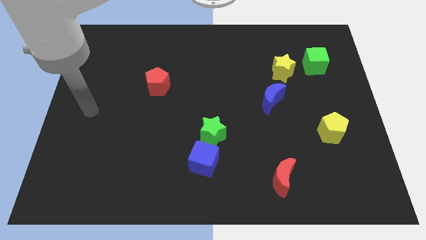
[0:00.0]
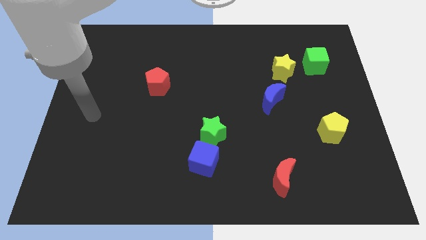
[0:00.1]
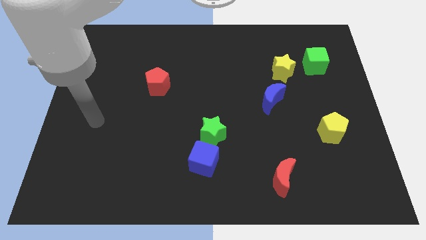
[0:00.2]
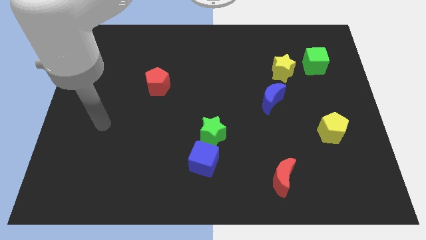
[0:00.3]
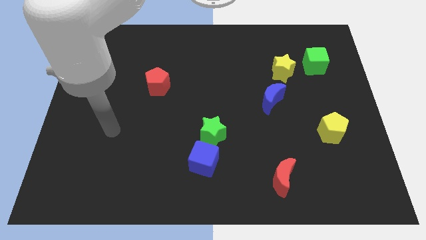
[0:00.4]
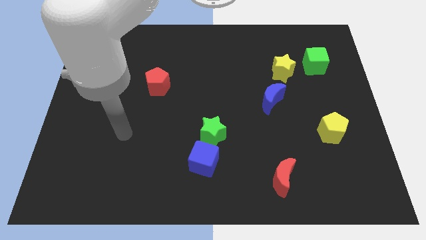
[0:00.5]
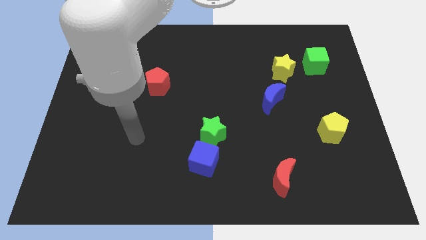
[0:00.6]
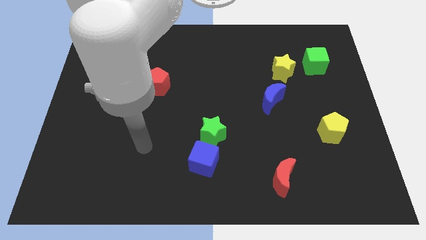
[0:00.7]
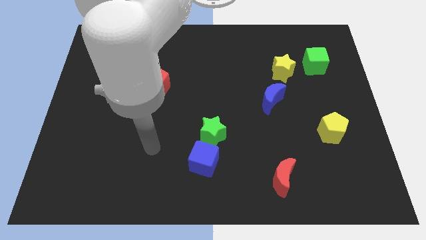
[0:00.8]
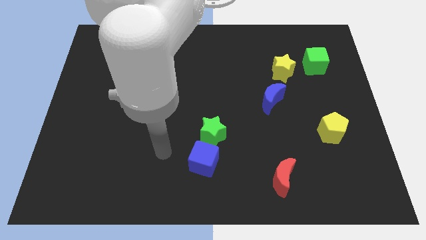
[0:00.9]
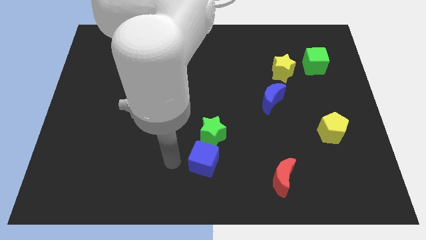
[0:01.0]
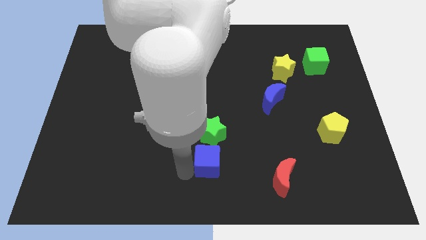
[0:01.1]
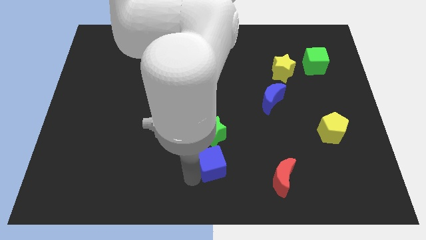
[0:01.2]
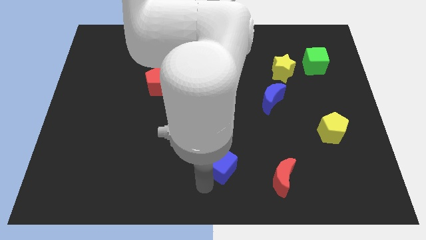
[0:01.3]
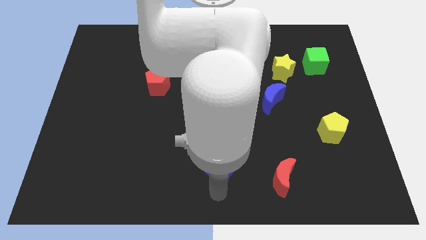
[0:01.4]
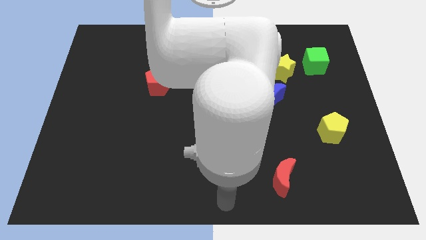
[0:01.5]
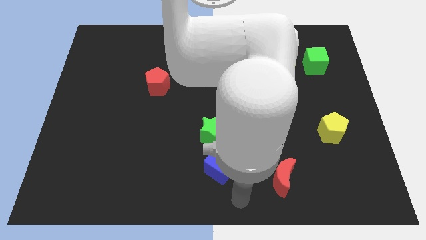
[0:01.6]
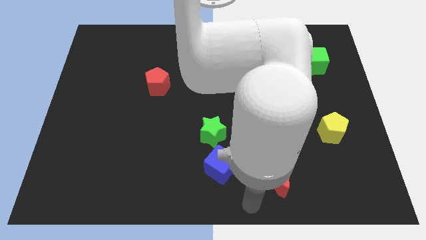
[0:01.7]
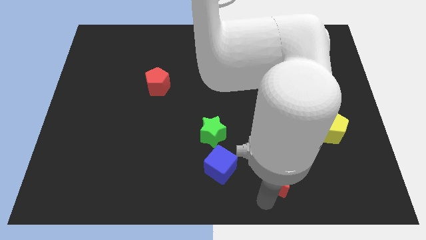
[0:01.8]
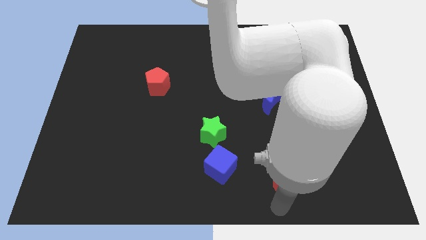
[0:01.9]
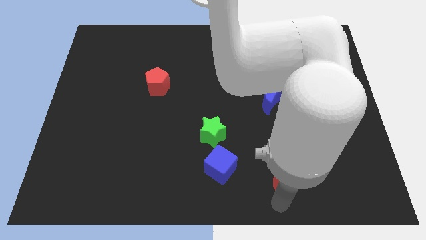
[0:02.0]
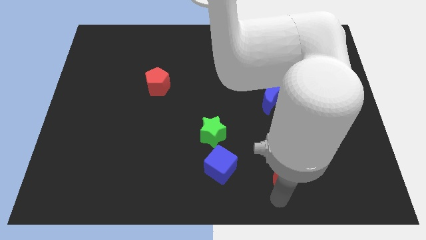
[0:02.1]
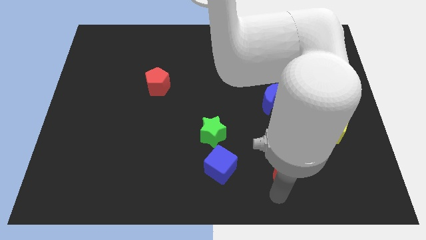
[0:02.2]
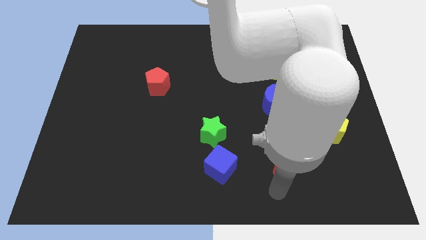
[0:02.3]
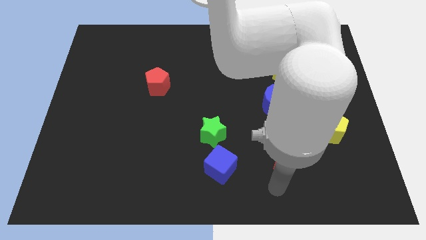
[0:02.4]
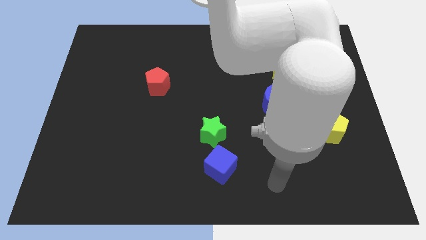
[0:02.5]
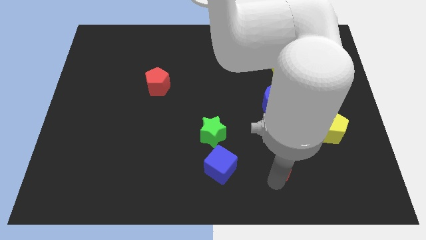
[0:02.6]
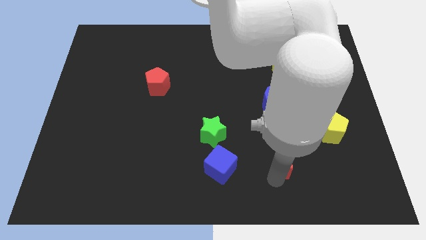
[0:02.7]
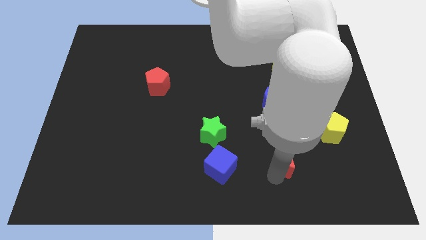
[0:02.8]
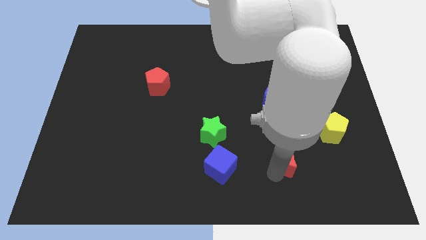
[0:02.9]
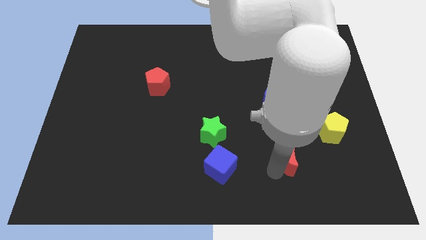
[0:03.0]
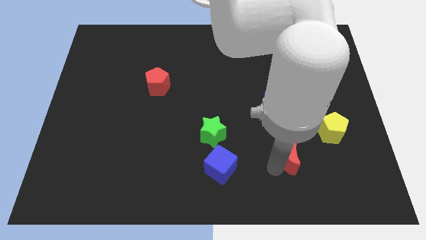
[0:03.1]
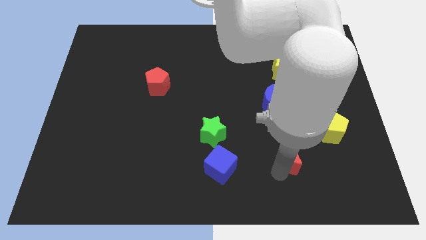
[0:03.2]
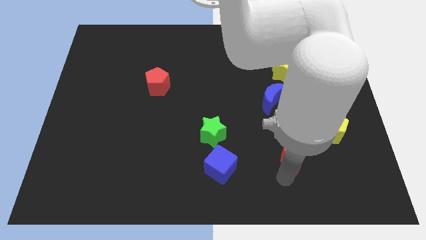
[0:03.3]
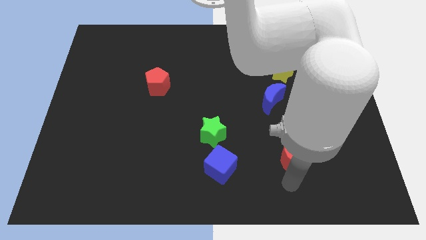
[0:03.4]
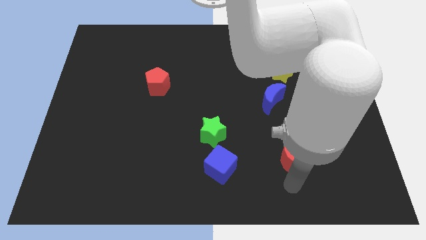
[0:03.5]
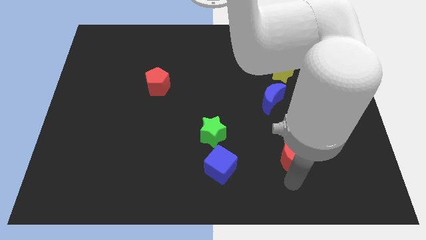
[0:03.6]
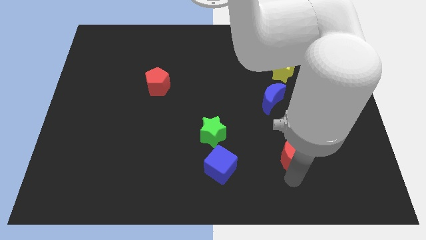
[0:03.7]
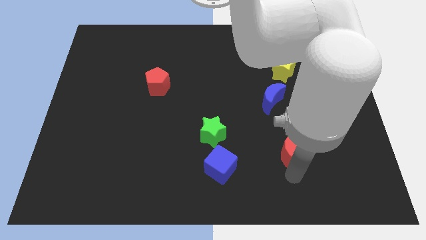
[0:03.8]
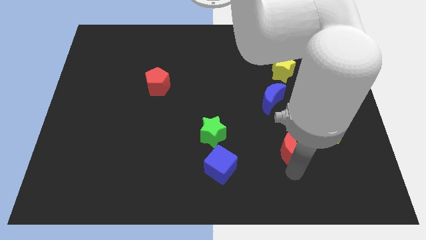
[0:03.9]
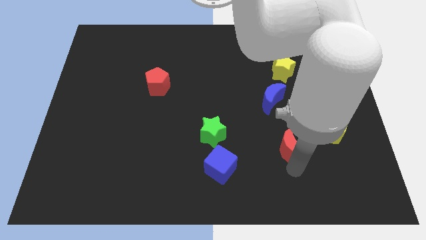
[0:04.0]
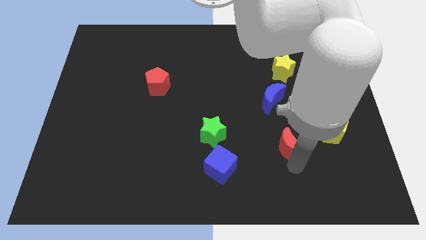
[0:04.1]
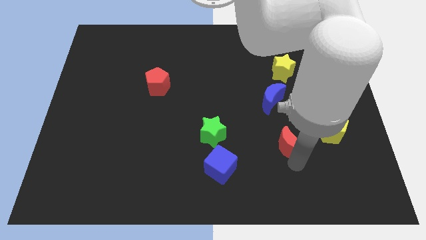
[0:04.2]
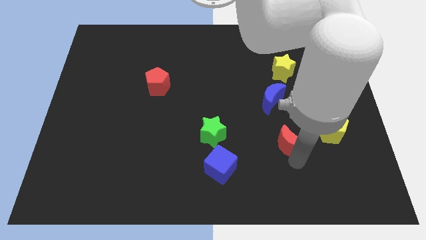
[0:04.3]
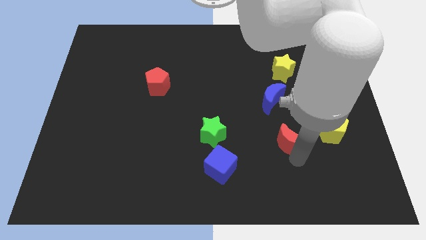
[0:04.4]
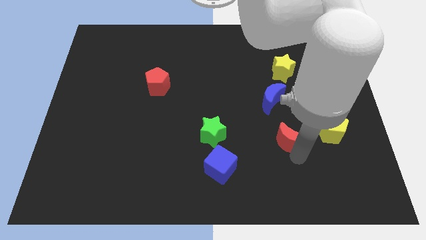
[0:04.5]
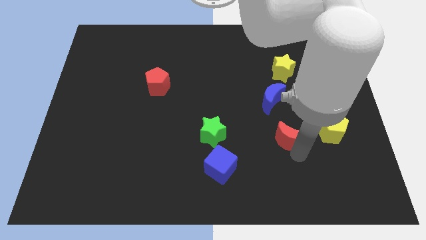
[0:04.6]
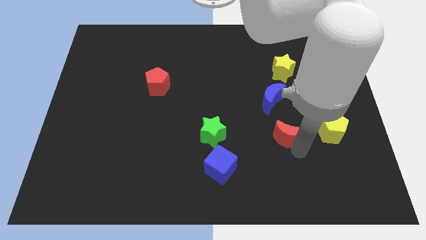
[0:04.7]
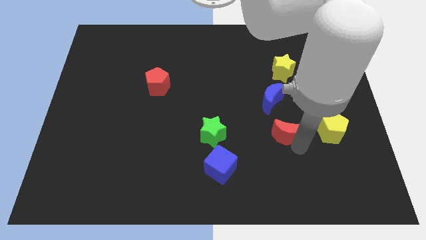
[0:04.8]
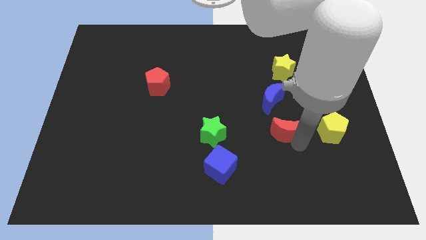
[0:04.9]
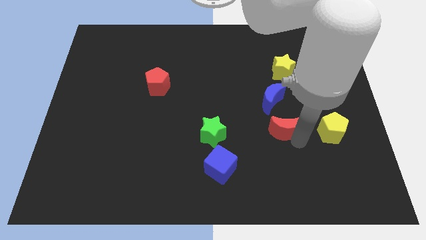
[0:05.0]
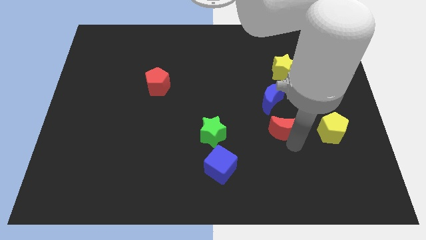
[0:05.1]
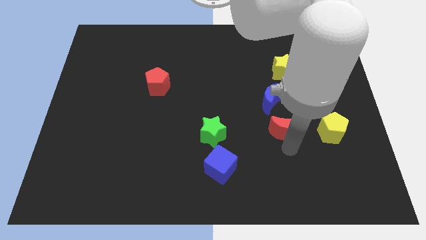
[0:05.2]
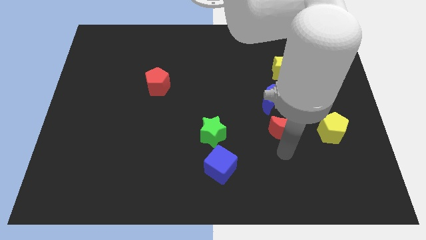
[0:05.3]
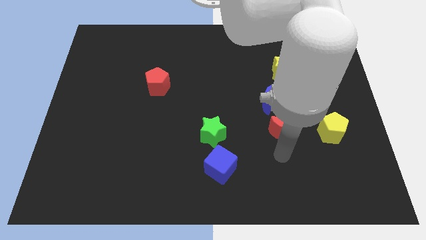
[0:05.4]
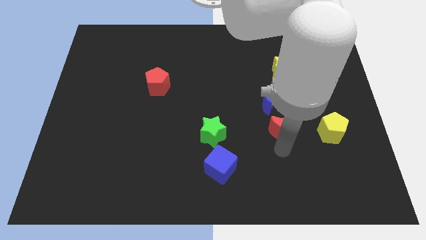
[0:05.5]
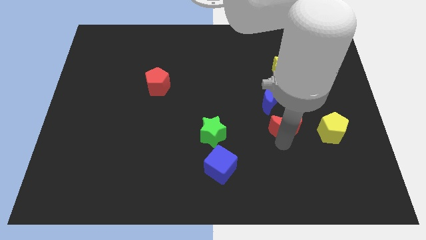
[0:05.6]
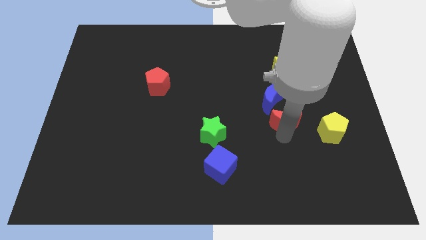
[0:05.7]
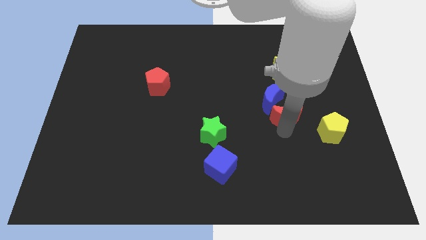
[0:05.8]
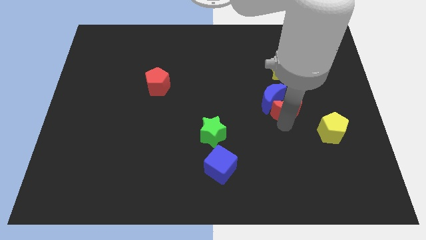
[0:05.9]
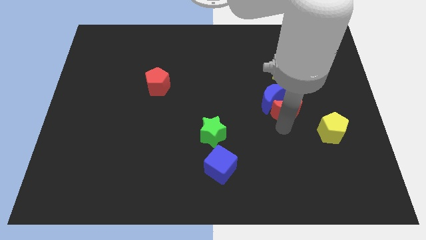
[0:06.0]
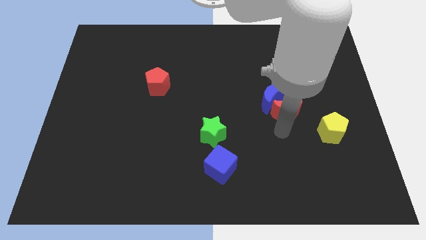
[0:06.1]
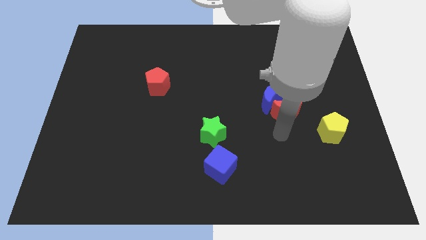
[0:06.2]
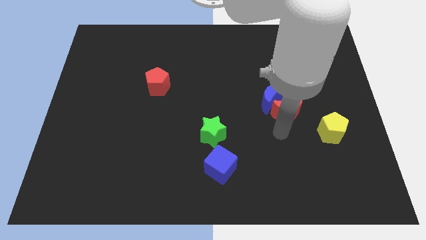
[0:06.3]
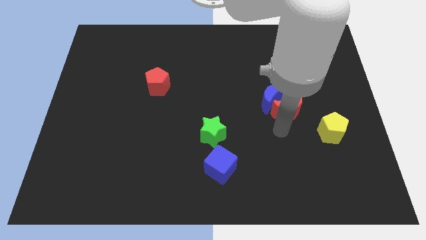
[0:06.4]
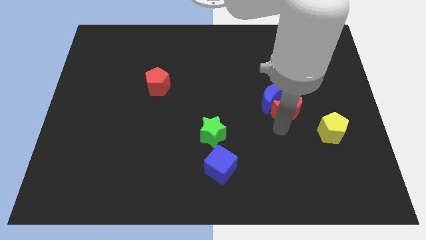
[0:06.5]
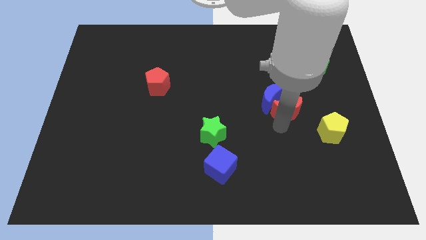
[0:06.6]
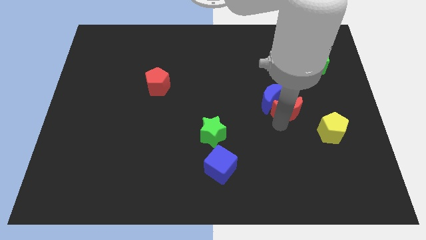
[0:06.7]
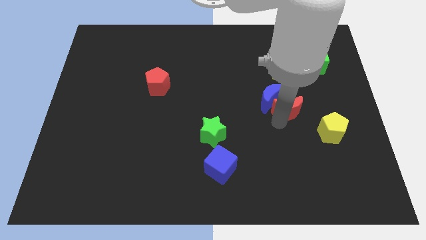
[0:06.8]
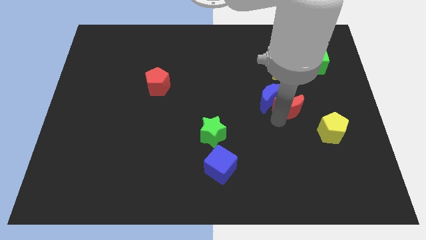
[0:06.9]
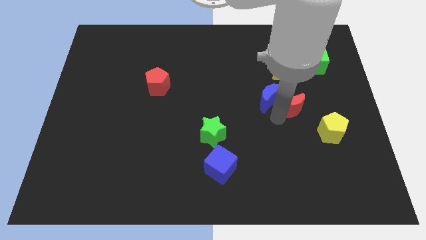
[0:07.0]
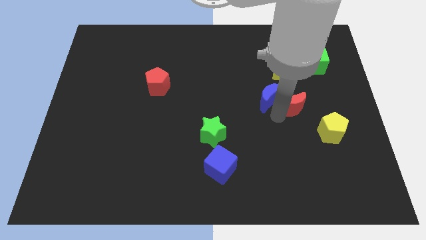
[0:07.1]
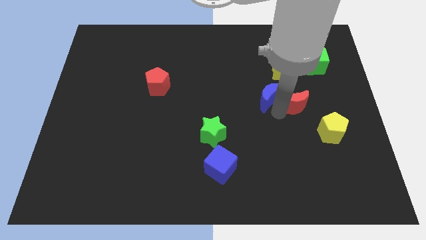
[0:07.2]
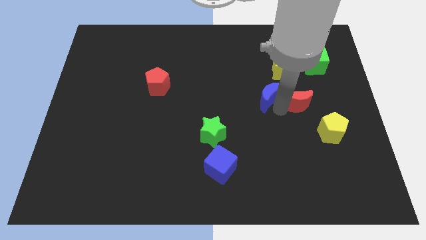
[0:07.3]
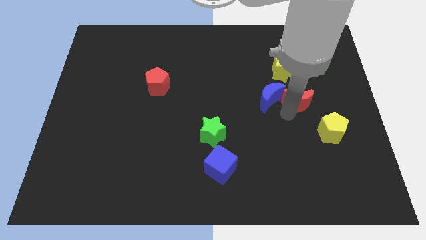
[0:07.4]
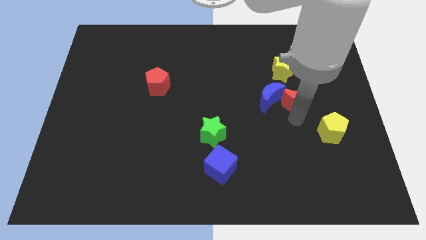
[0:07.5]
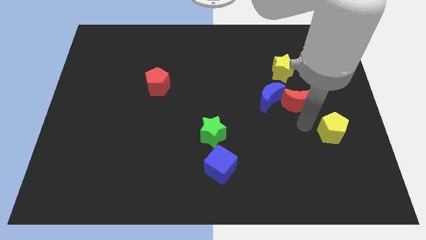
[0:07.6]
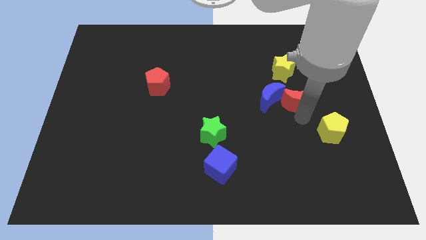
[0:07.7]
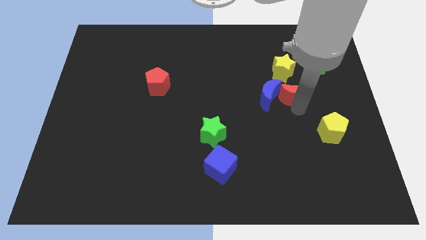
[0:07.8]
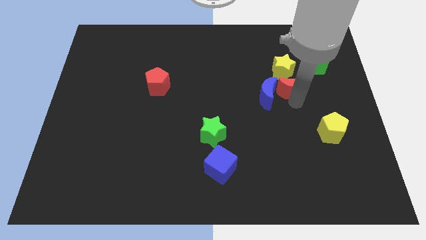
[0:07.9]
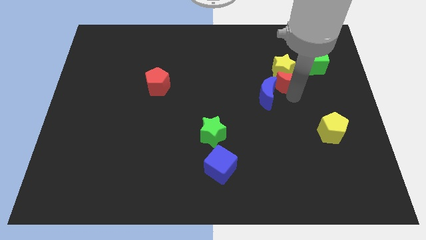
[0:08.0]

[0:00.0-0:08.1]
move the red moon next to the yellow star
